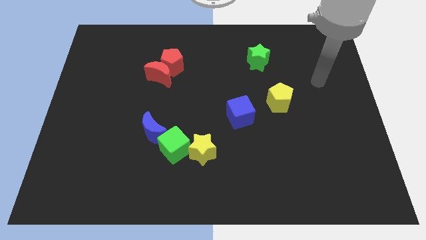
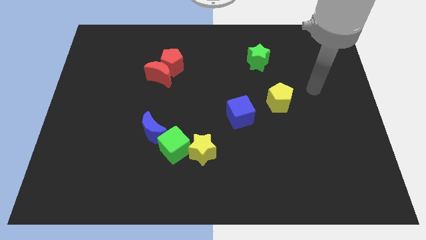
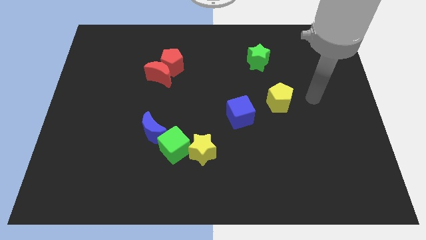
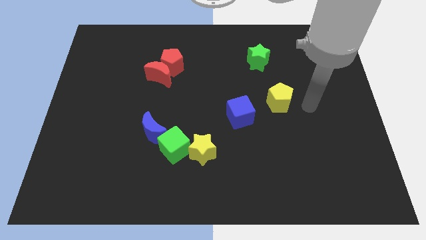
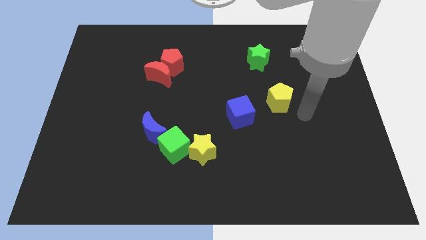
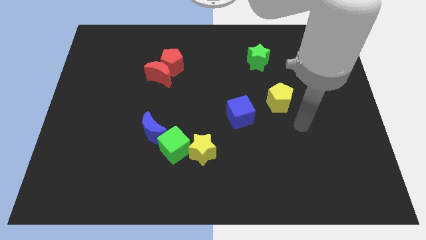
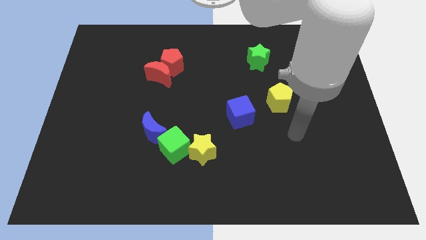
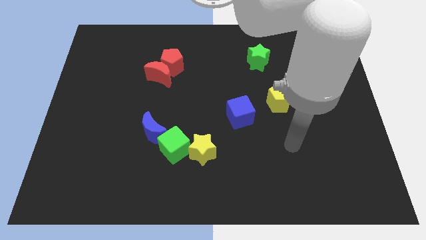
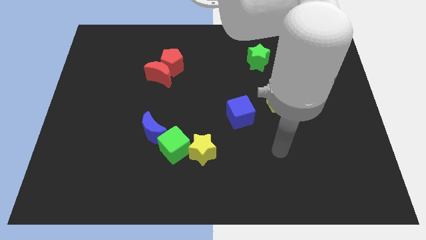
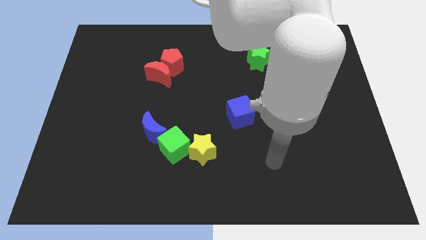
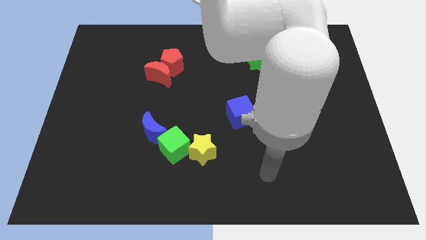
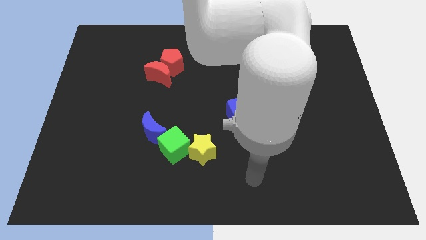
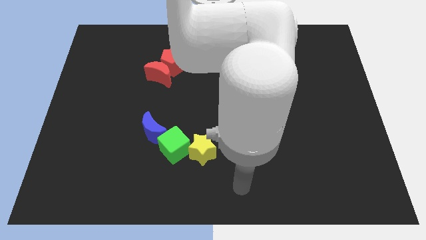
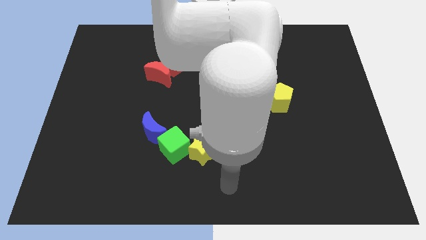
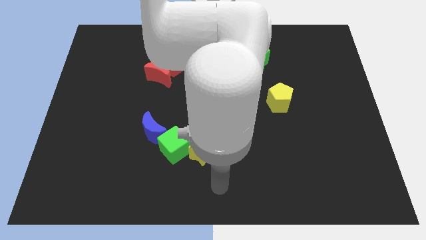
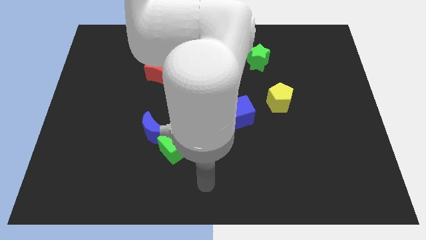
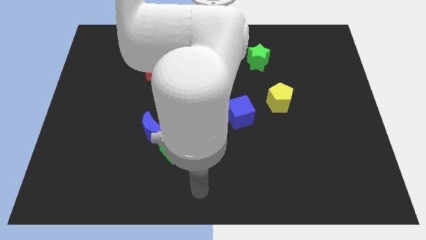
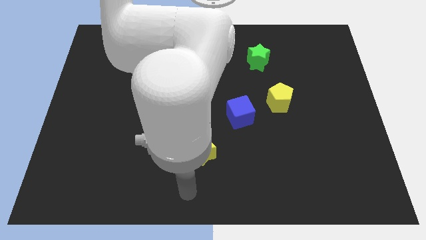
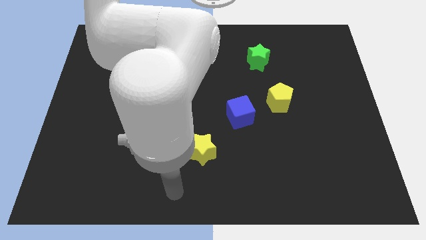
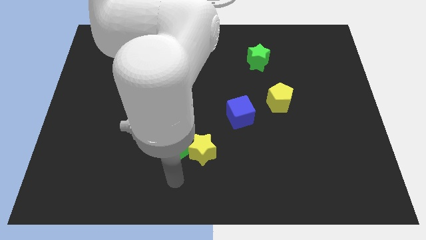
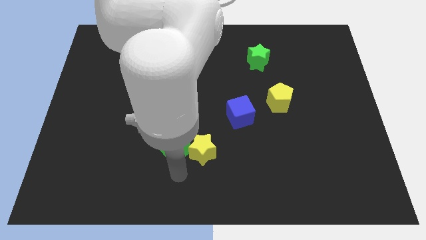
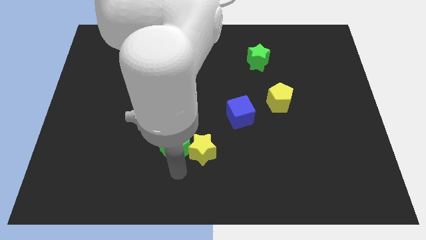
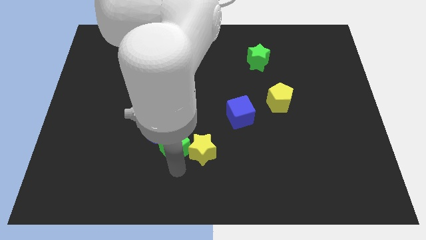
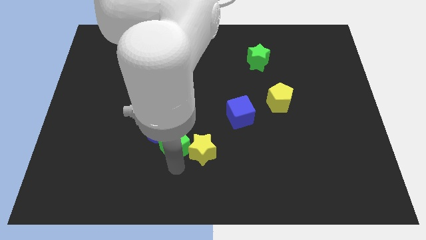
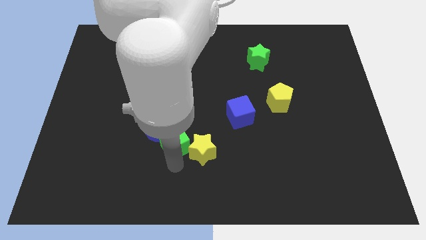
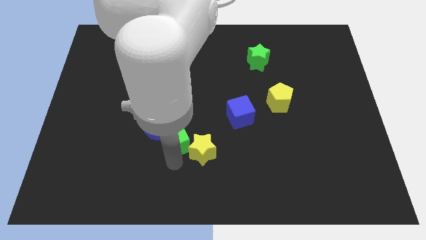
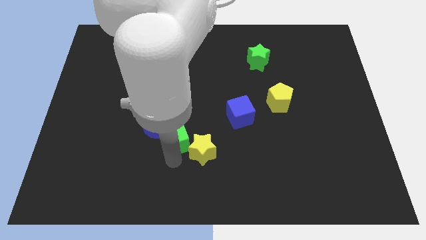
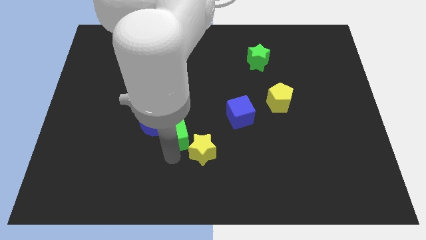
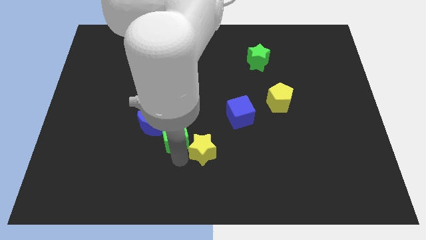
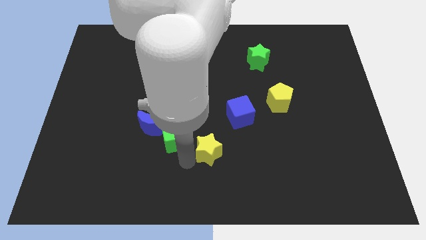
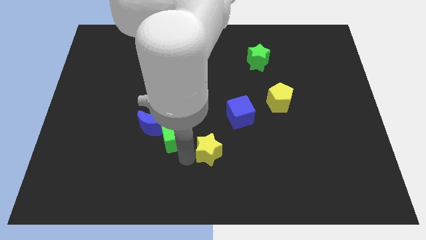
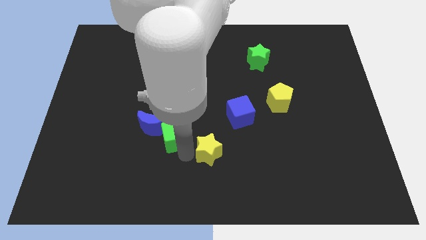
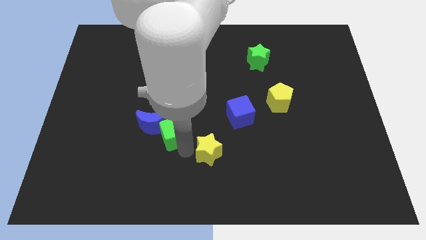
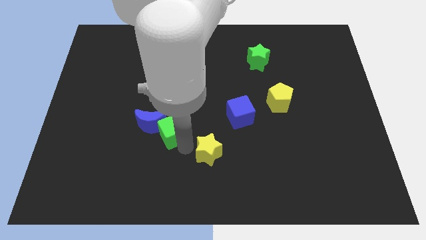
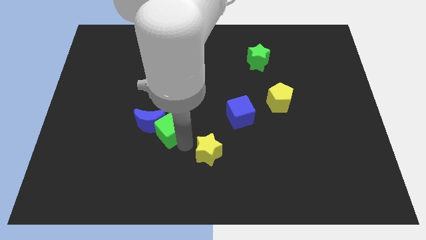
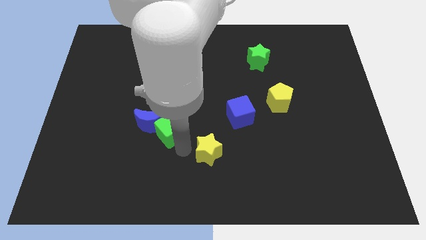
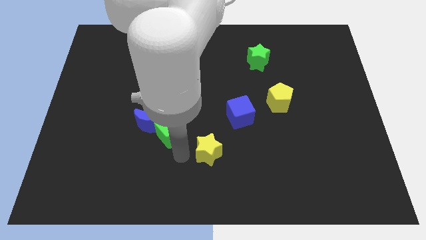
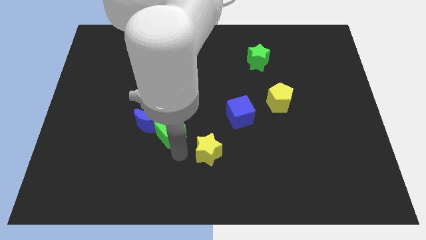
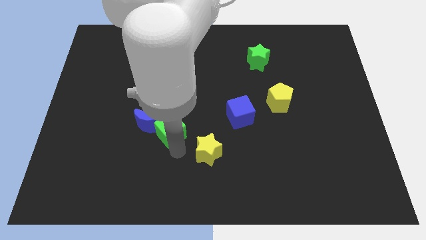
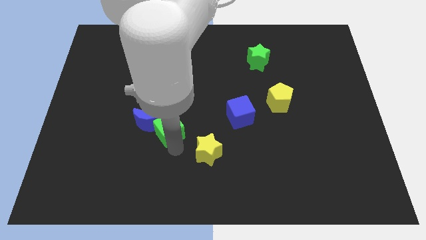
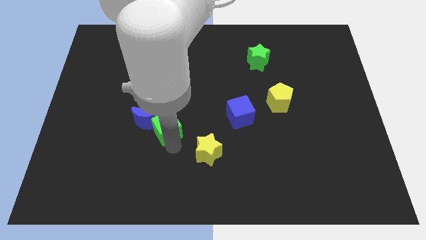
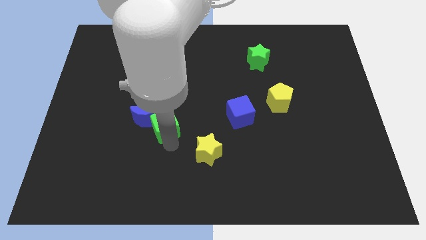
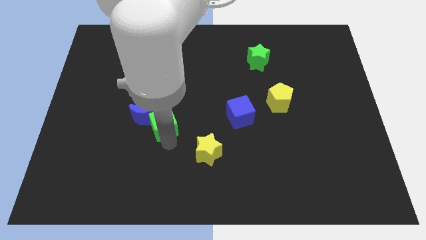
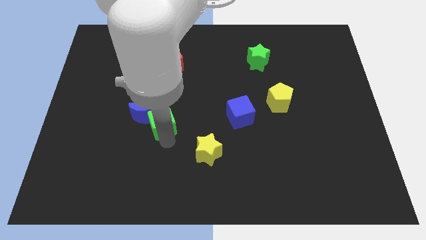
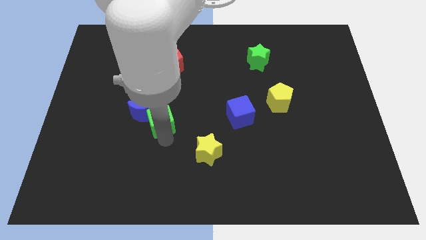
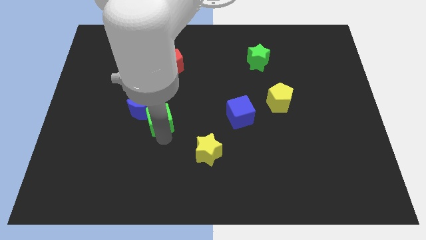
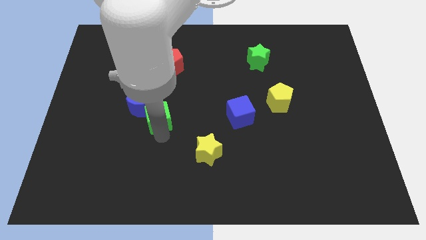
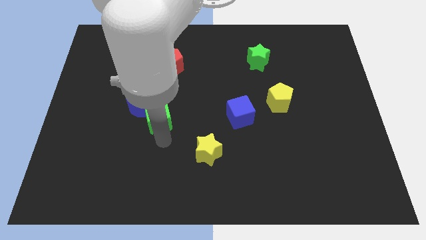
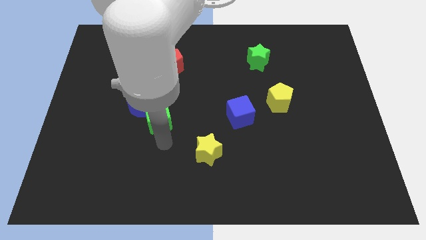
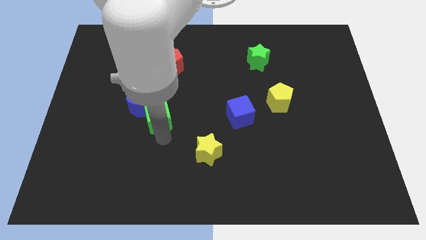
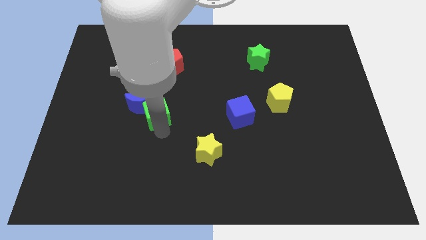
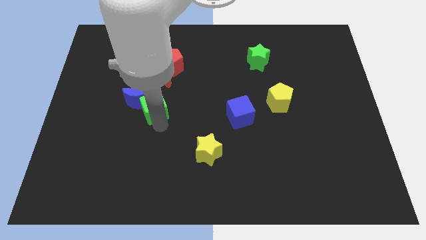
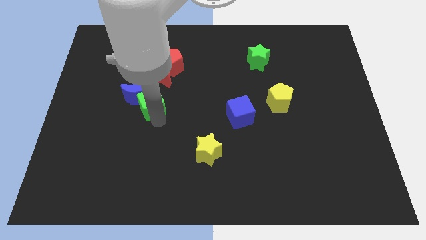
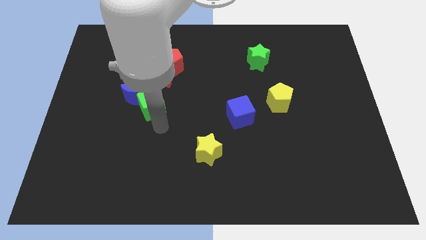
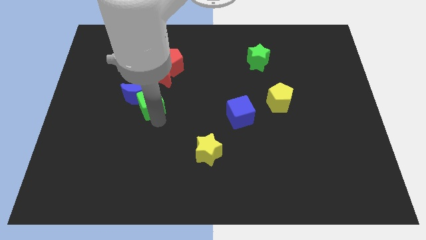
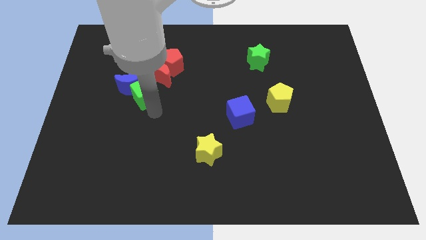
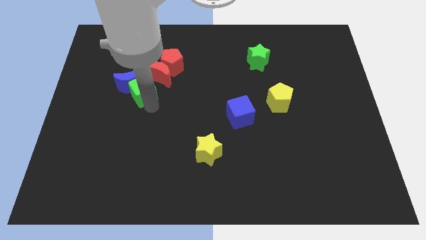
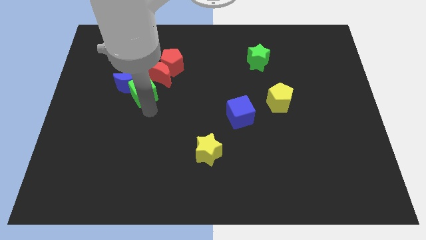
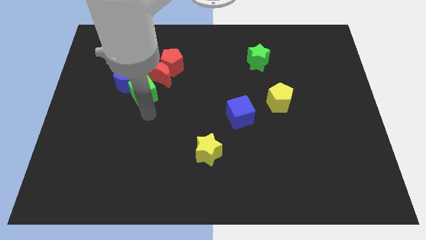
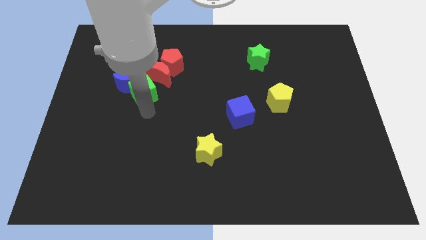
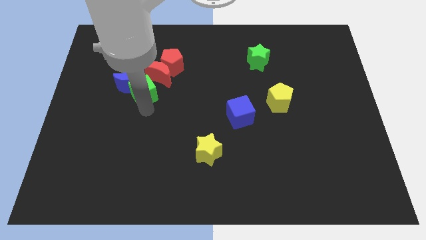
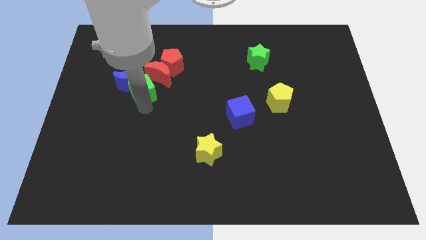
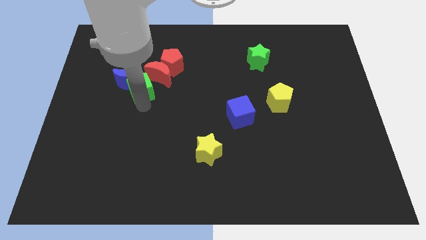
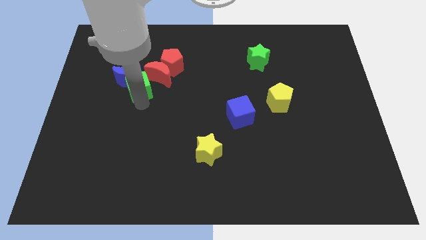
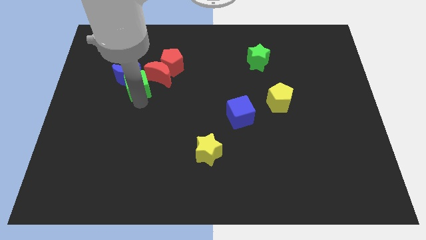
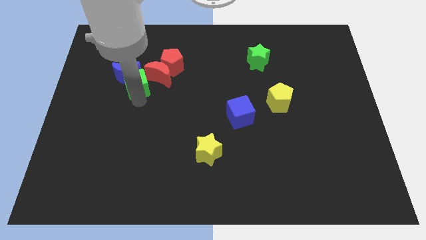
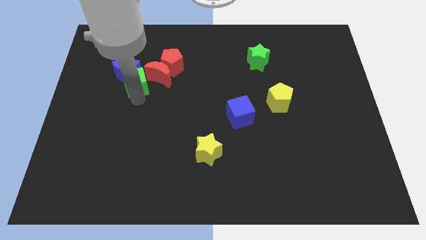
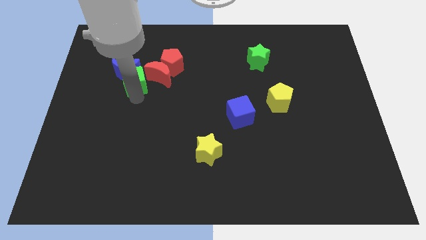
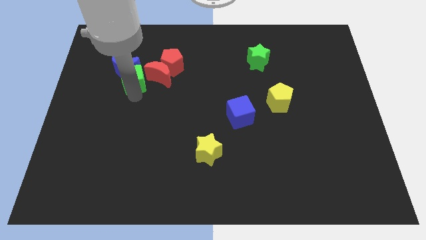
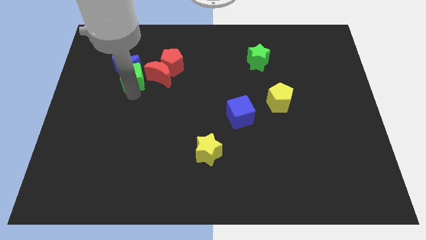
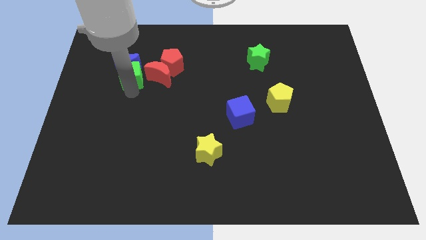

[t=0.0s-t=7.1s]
move the green cube to the left of the red pentagon
